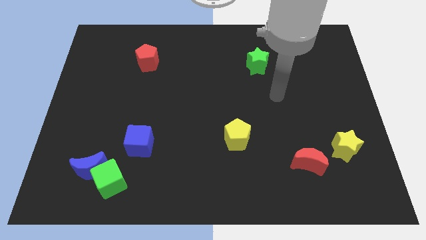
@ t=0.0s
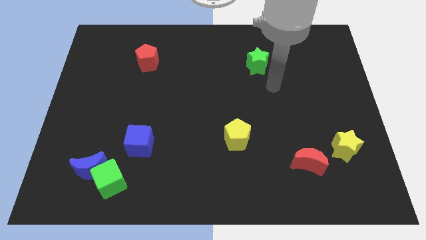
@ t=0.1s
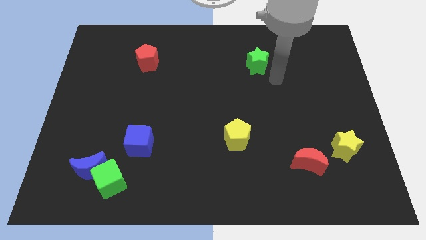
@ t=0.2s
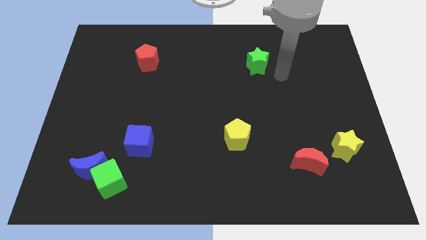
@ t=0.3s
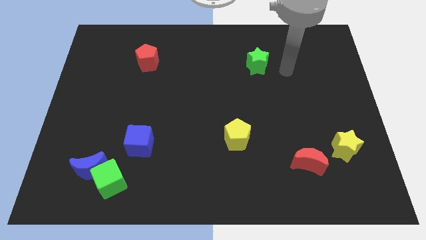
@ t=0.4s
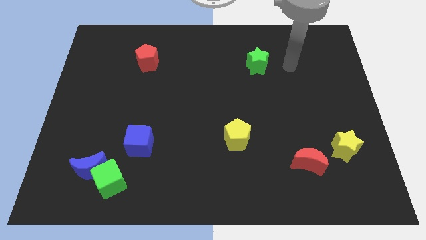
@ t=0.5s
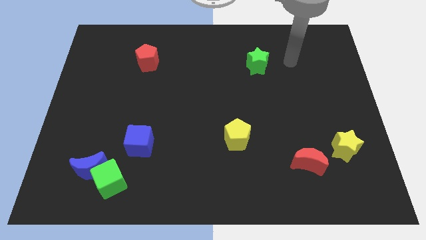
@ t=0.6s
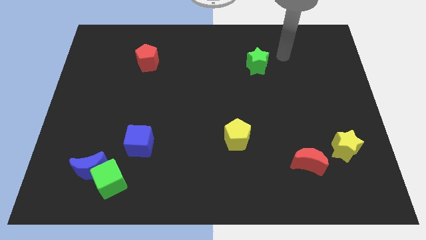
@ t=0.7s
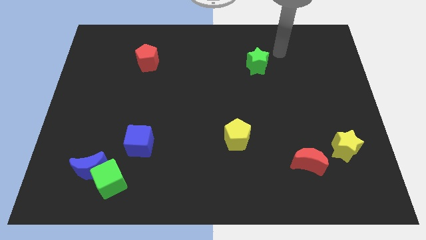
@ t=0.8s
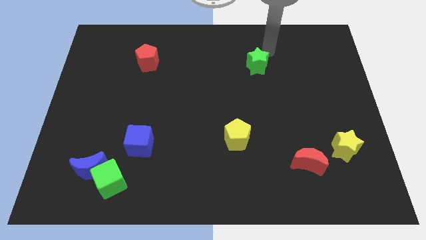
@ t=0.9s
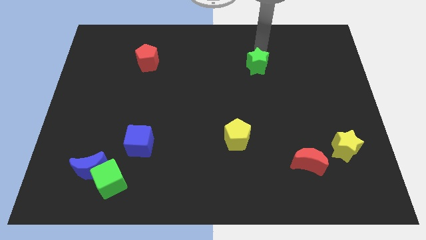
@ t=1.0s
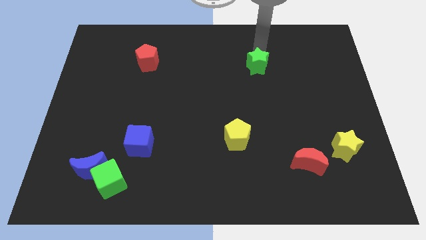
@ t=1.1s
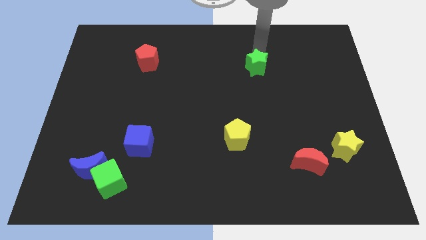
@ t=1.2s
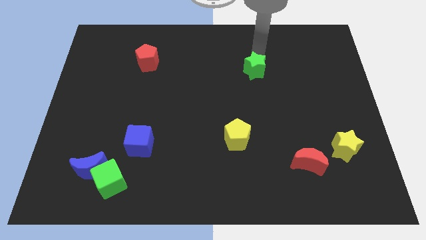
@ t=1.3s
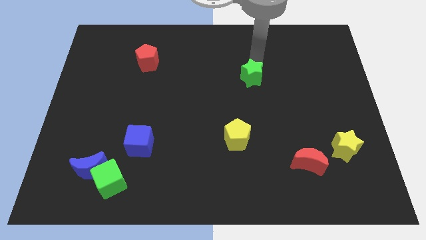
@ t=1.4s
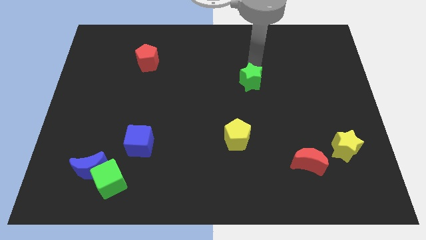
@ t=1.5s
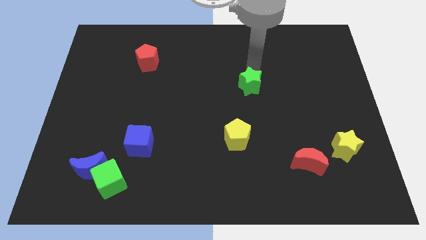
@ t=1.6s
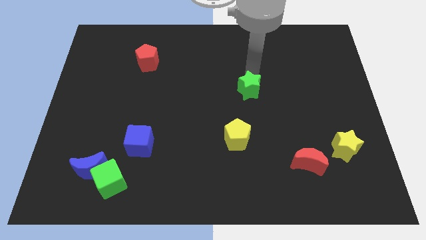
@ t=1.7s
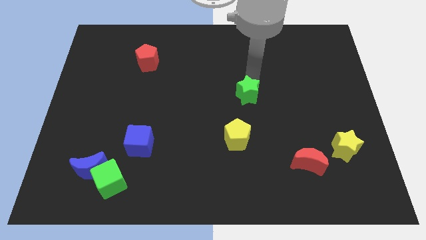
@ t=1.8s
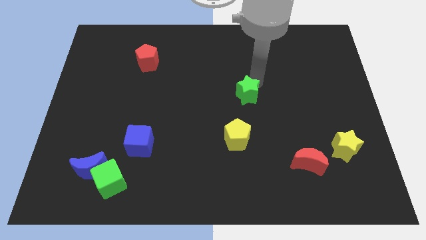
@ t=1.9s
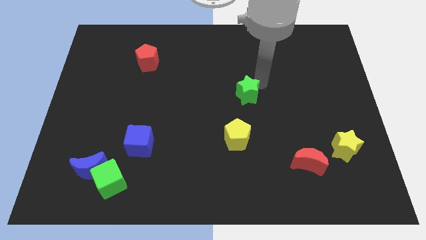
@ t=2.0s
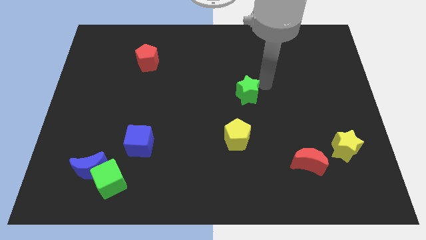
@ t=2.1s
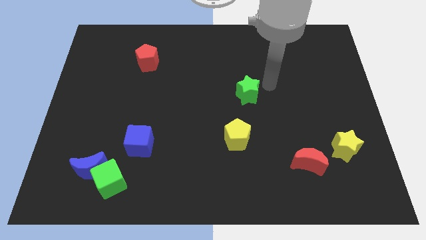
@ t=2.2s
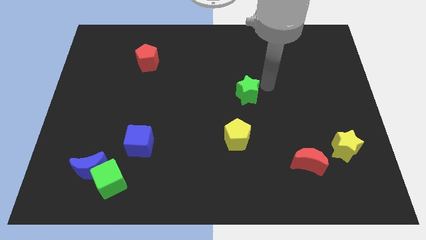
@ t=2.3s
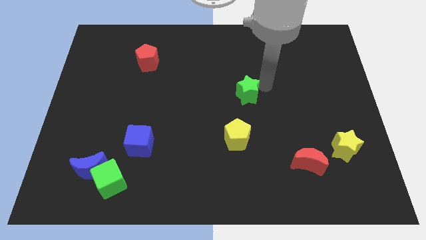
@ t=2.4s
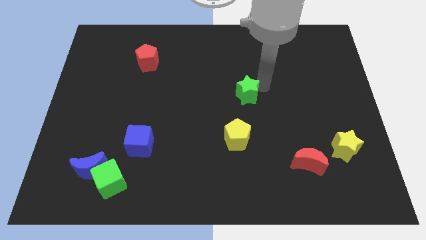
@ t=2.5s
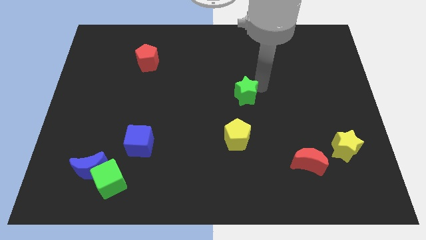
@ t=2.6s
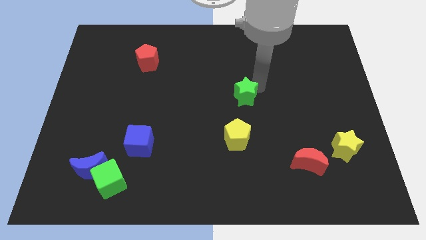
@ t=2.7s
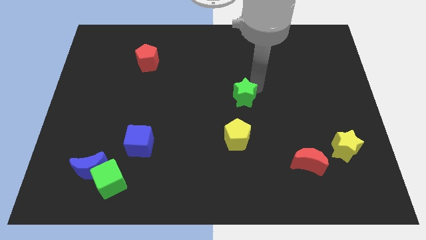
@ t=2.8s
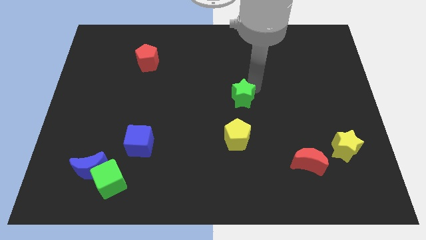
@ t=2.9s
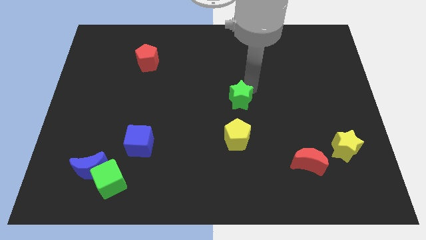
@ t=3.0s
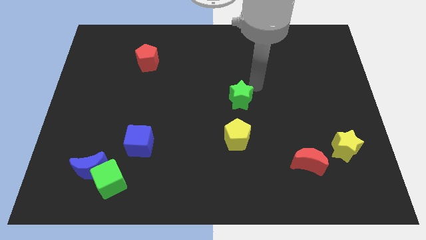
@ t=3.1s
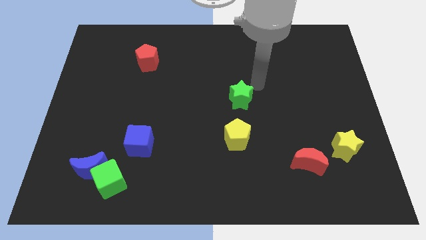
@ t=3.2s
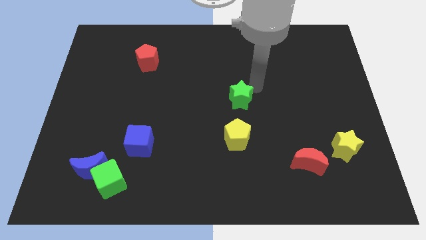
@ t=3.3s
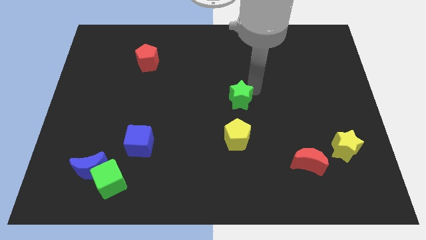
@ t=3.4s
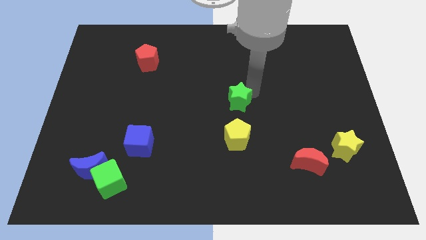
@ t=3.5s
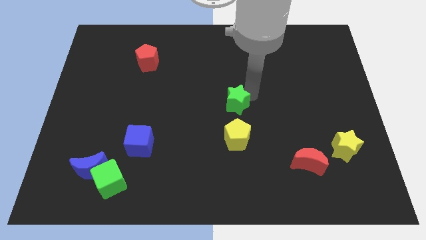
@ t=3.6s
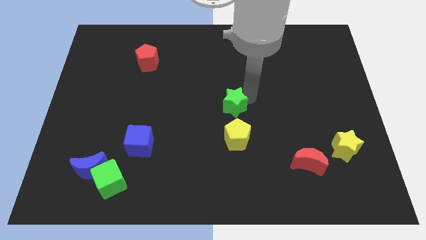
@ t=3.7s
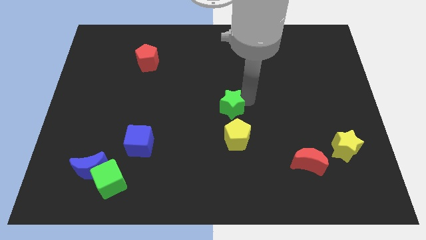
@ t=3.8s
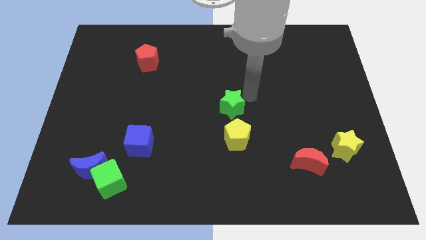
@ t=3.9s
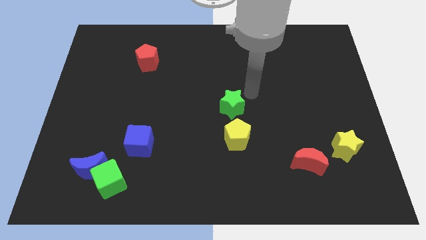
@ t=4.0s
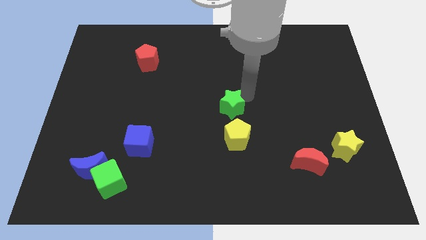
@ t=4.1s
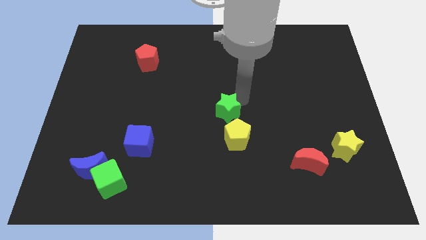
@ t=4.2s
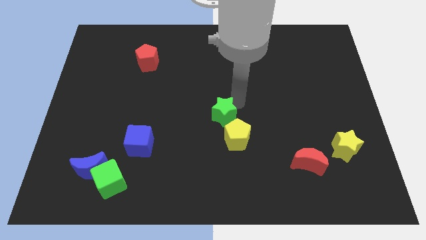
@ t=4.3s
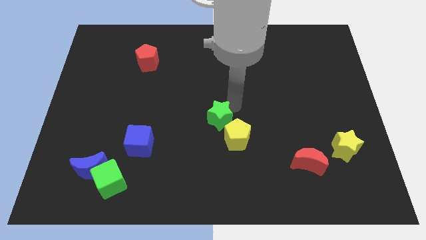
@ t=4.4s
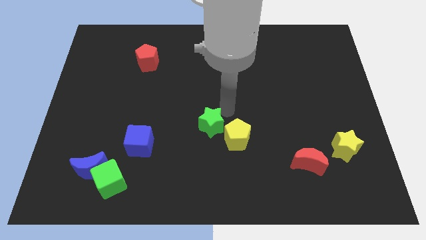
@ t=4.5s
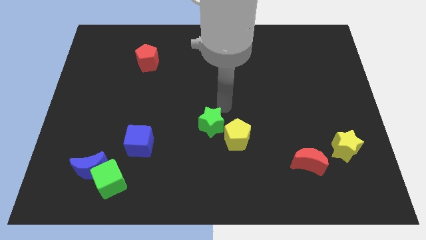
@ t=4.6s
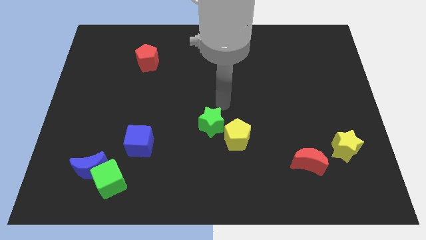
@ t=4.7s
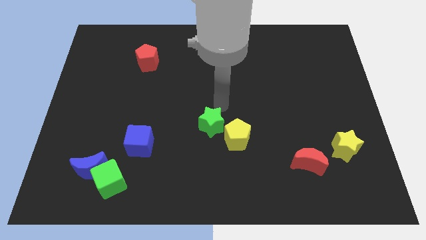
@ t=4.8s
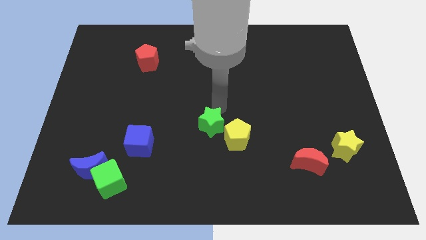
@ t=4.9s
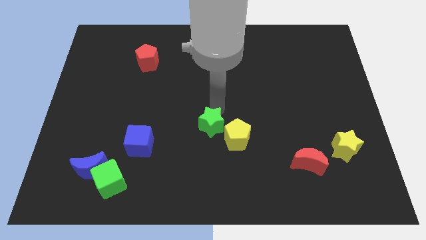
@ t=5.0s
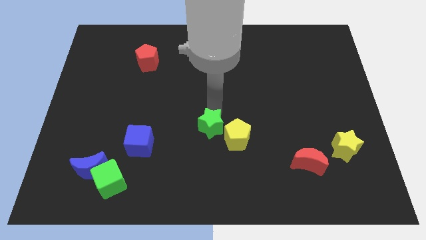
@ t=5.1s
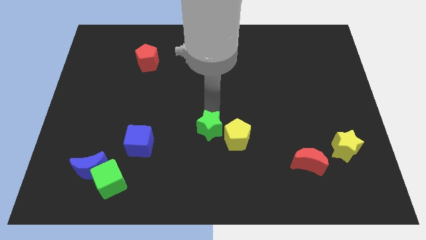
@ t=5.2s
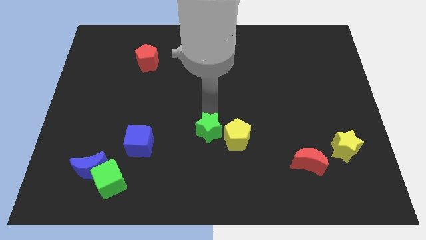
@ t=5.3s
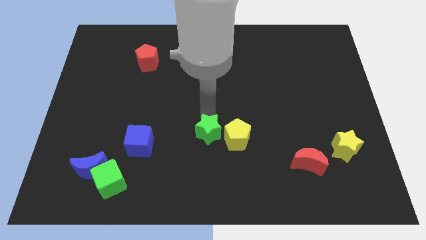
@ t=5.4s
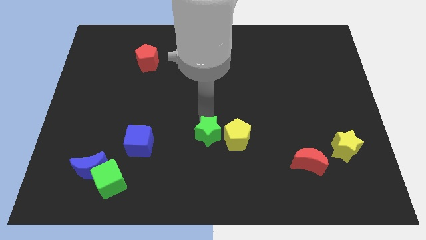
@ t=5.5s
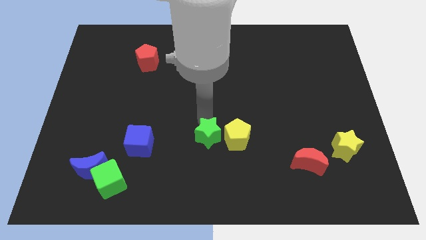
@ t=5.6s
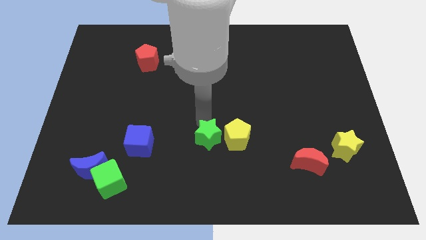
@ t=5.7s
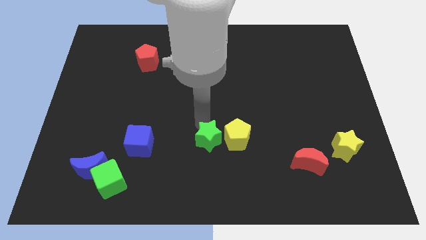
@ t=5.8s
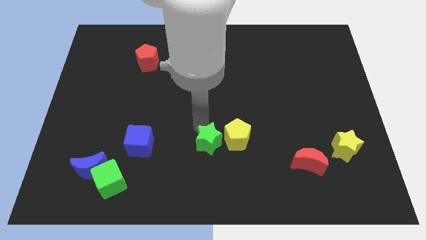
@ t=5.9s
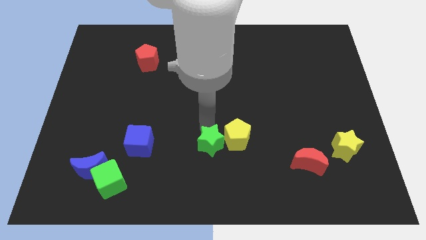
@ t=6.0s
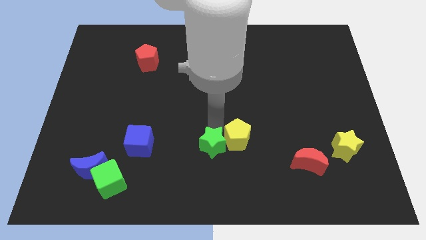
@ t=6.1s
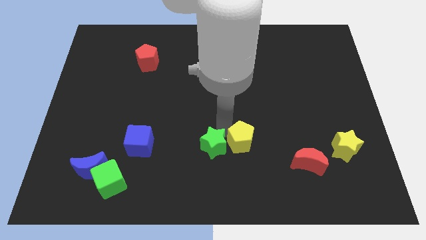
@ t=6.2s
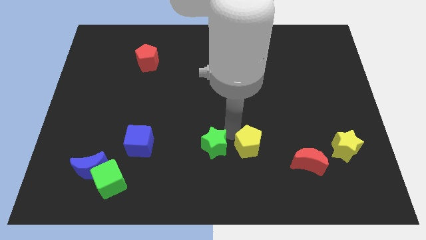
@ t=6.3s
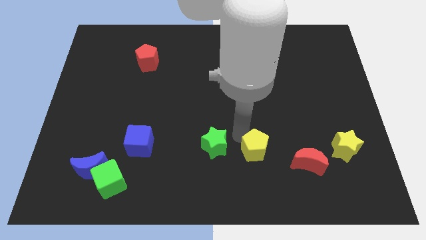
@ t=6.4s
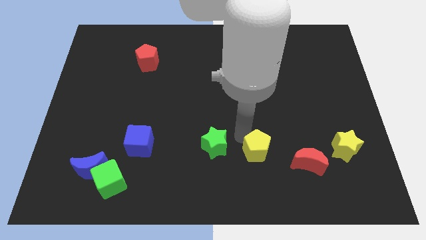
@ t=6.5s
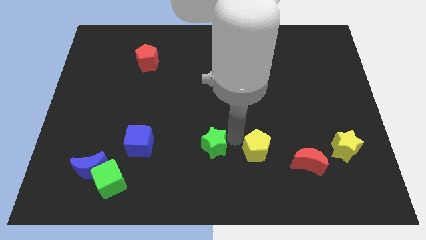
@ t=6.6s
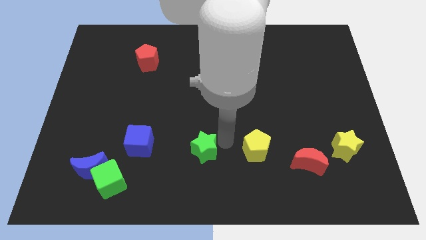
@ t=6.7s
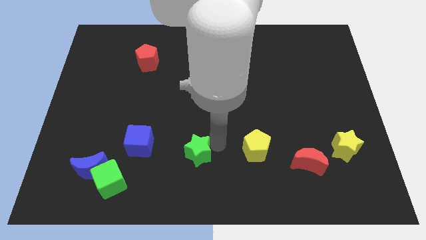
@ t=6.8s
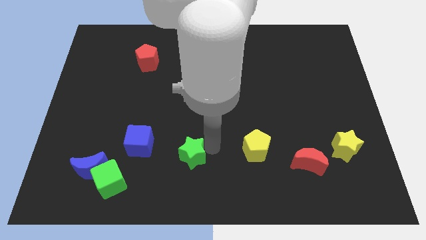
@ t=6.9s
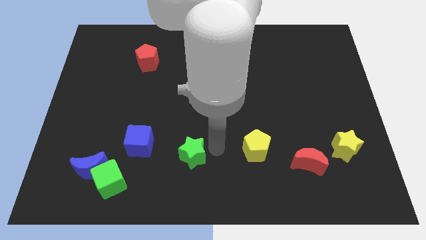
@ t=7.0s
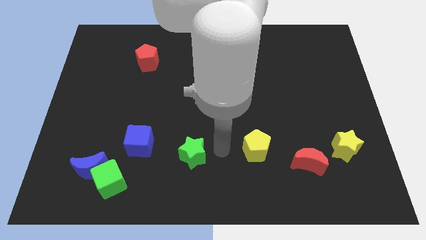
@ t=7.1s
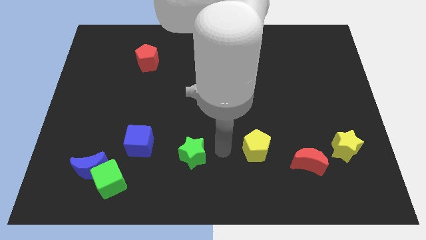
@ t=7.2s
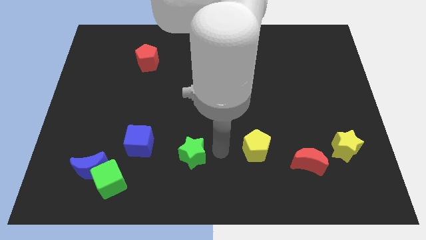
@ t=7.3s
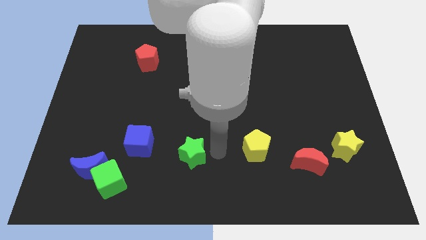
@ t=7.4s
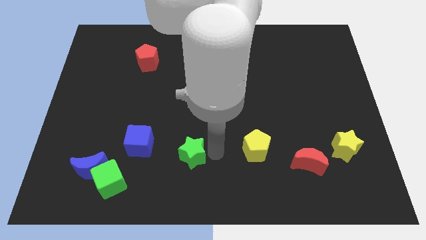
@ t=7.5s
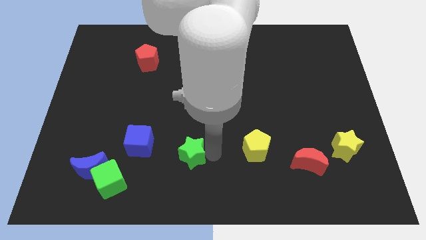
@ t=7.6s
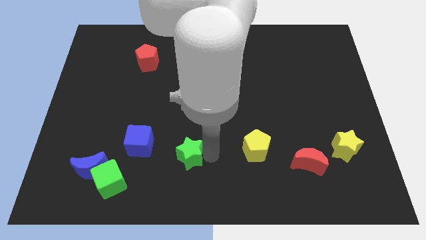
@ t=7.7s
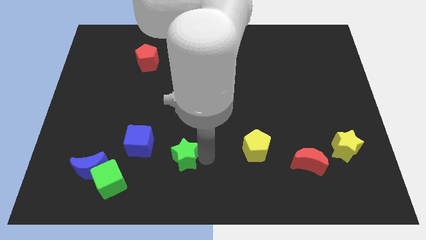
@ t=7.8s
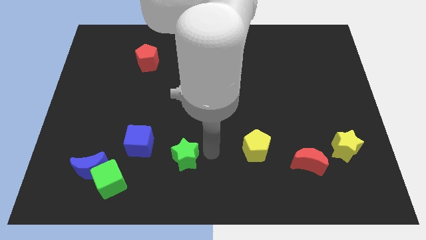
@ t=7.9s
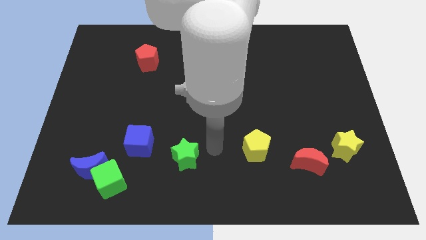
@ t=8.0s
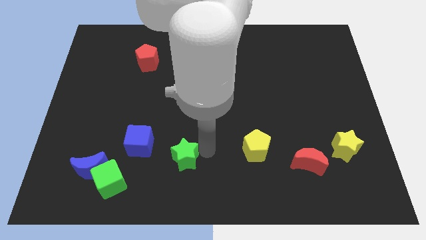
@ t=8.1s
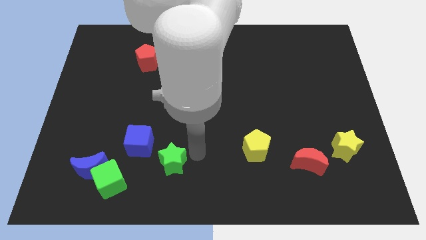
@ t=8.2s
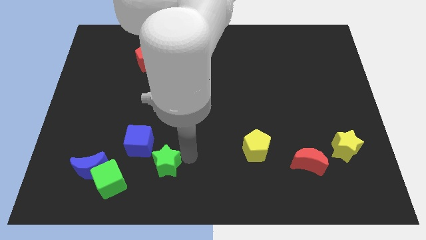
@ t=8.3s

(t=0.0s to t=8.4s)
put the green star right of the blue moon
